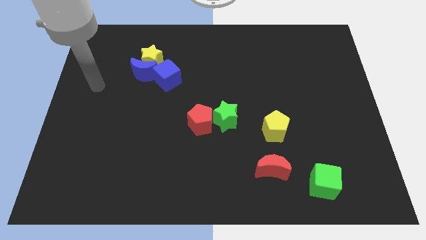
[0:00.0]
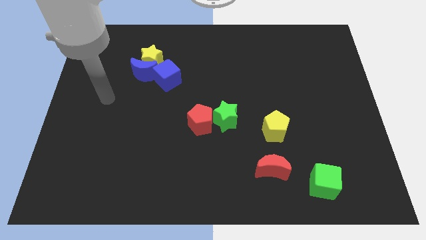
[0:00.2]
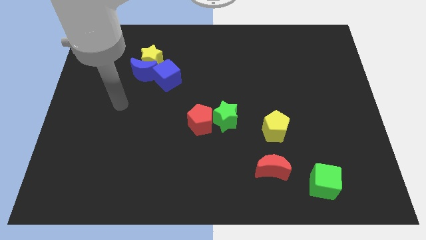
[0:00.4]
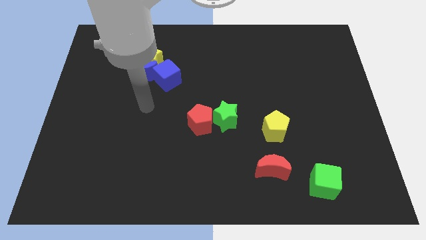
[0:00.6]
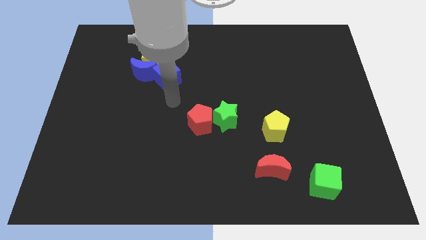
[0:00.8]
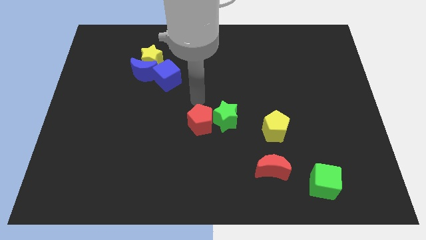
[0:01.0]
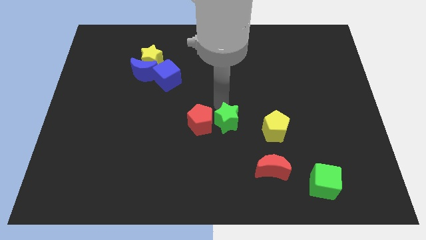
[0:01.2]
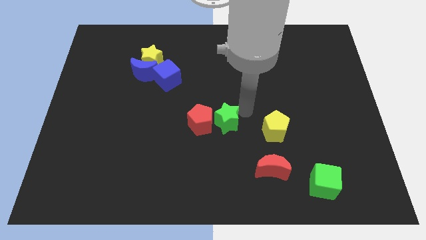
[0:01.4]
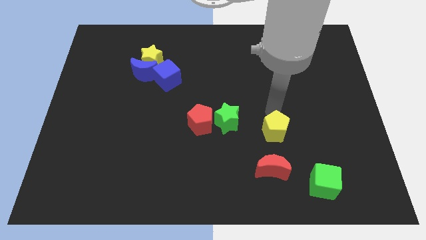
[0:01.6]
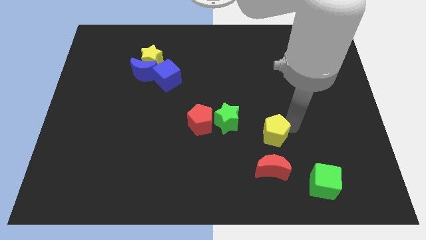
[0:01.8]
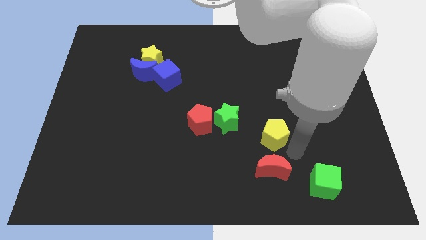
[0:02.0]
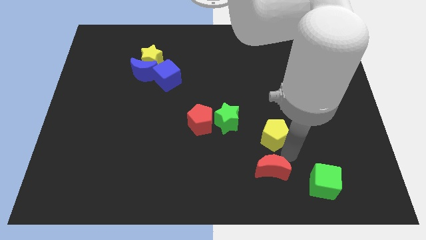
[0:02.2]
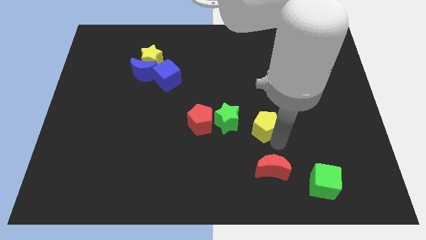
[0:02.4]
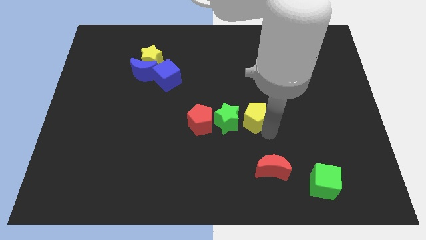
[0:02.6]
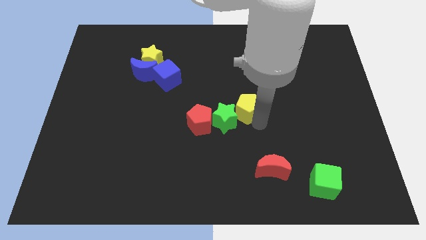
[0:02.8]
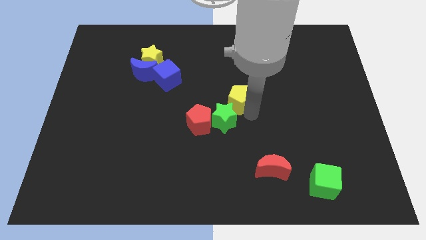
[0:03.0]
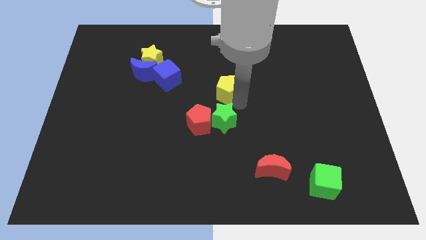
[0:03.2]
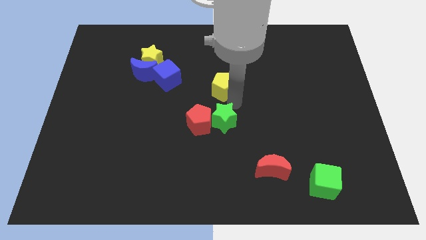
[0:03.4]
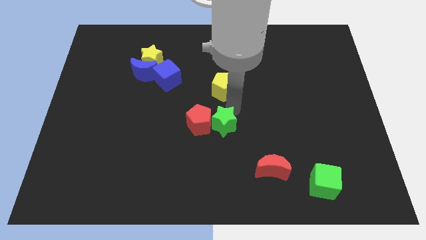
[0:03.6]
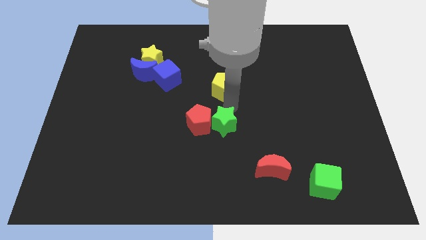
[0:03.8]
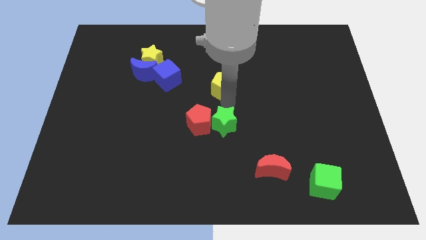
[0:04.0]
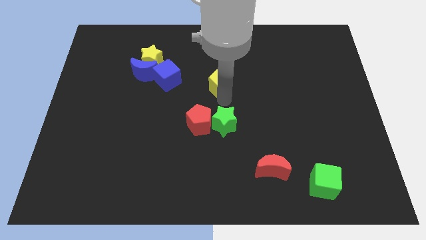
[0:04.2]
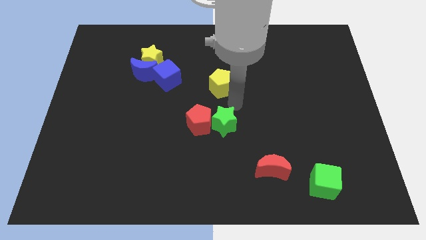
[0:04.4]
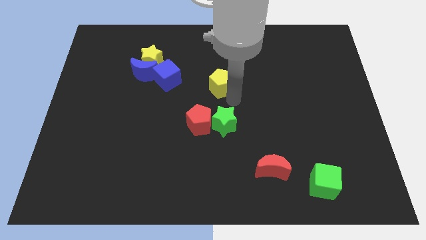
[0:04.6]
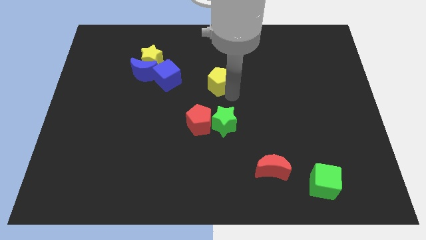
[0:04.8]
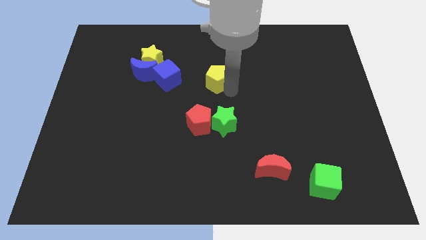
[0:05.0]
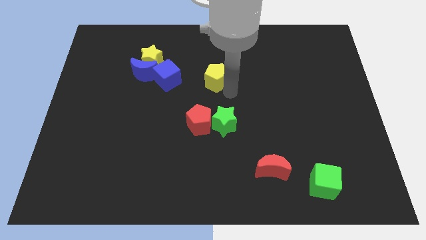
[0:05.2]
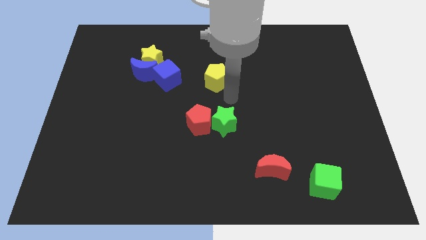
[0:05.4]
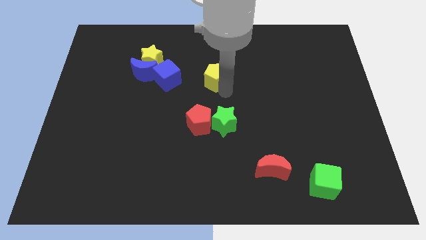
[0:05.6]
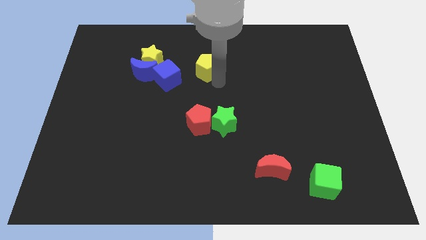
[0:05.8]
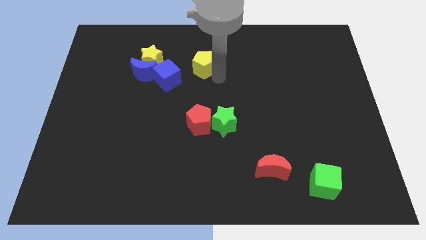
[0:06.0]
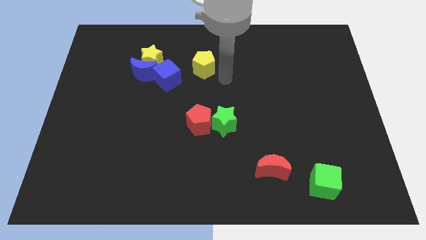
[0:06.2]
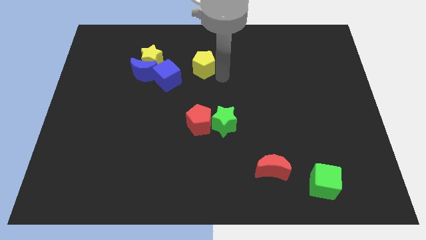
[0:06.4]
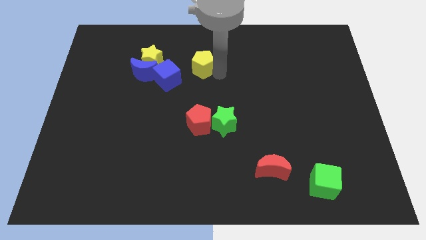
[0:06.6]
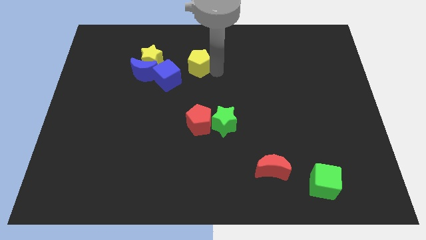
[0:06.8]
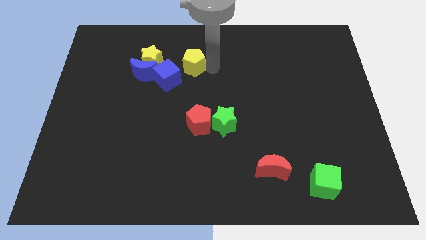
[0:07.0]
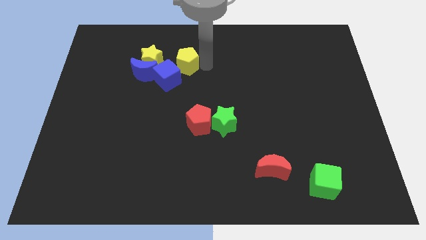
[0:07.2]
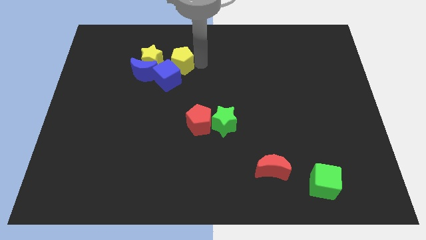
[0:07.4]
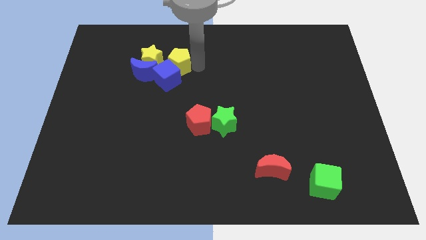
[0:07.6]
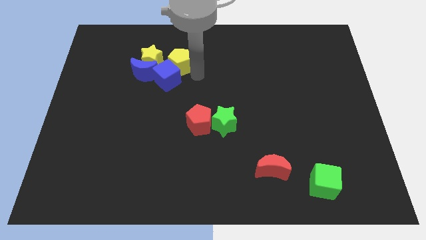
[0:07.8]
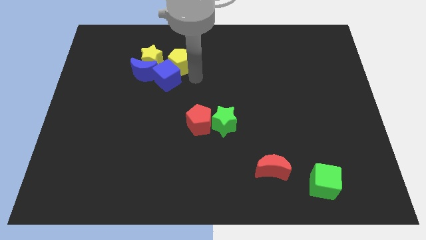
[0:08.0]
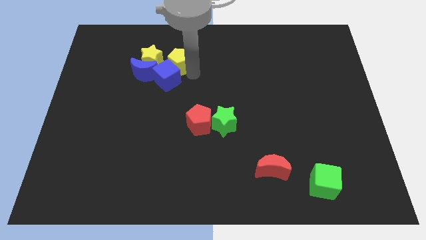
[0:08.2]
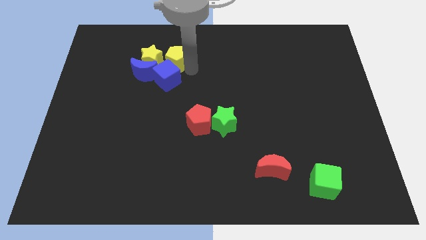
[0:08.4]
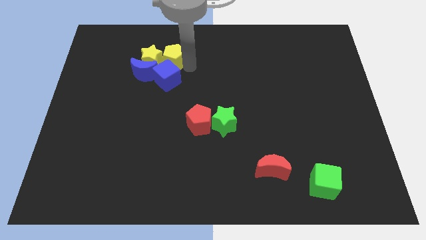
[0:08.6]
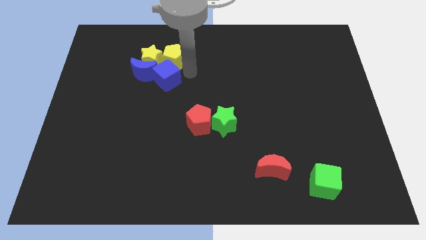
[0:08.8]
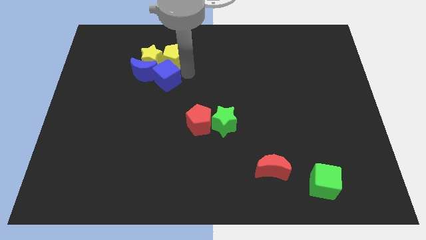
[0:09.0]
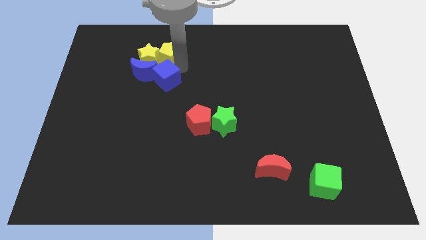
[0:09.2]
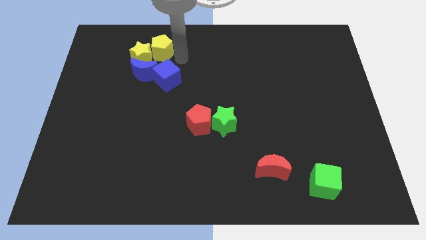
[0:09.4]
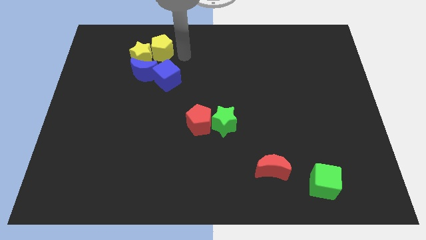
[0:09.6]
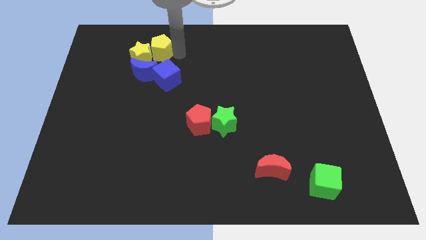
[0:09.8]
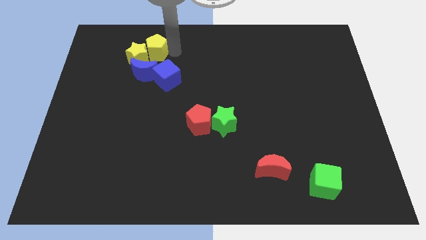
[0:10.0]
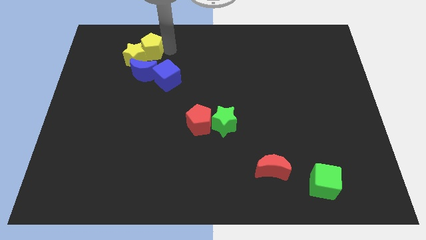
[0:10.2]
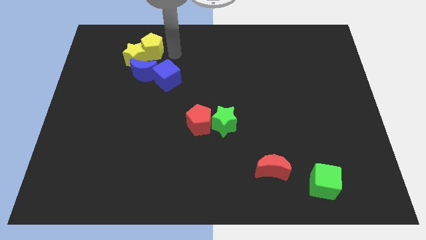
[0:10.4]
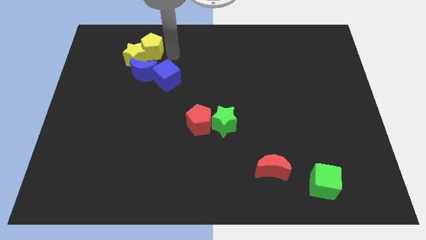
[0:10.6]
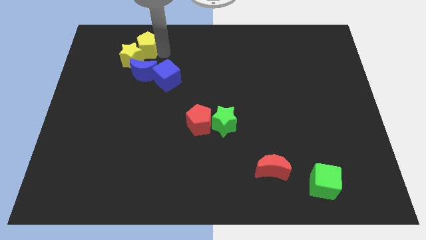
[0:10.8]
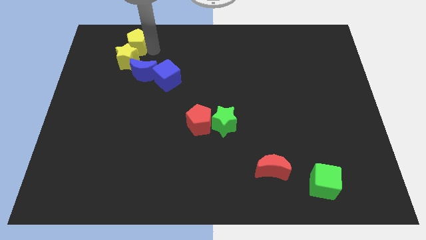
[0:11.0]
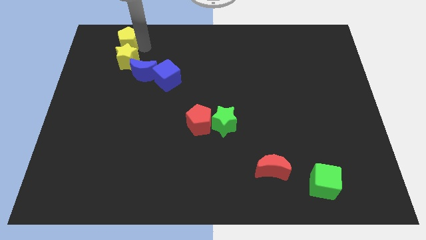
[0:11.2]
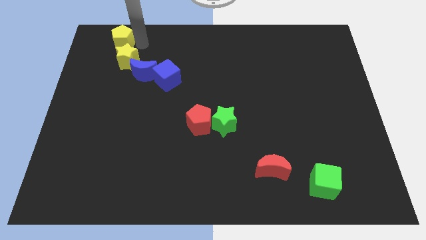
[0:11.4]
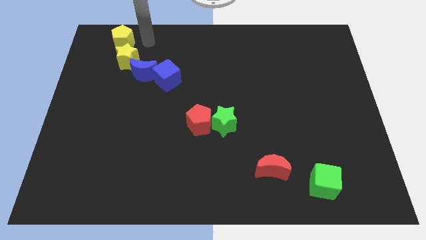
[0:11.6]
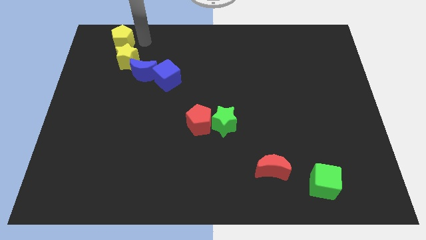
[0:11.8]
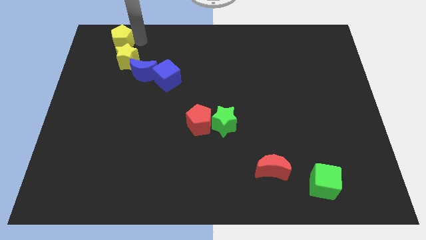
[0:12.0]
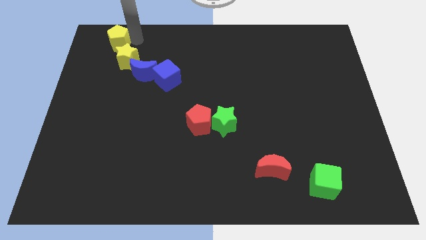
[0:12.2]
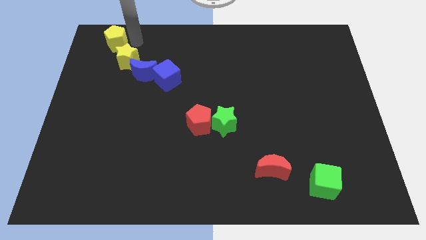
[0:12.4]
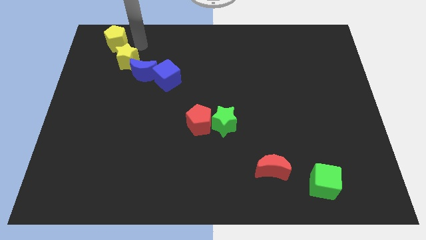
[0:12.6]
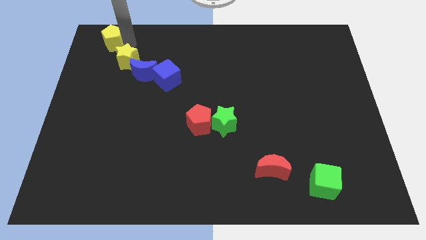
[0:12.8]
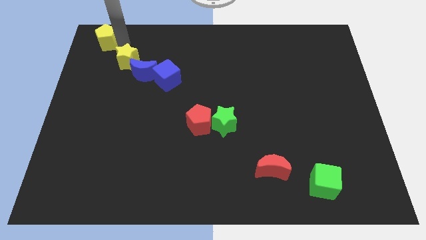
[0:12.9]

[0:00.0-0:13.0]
push the yellow pentagon to the top left

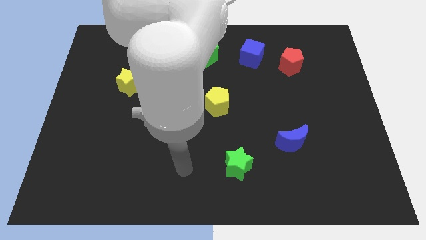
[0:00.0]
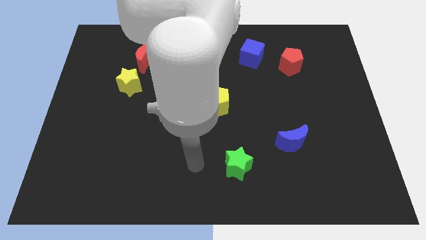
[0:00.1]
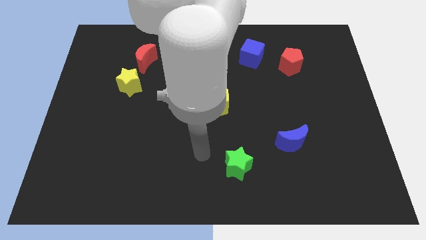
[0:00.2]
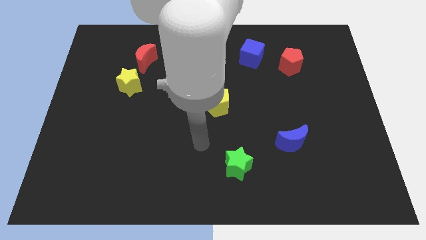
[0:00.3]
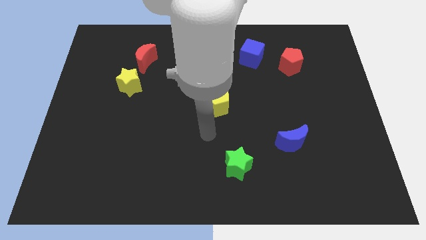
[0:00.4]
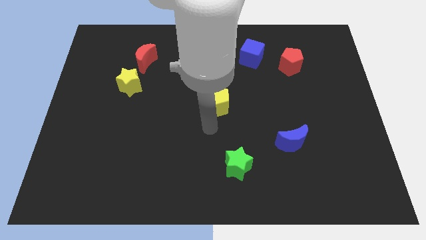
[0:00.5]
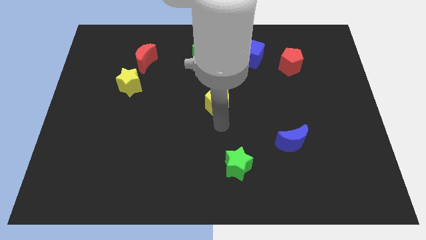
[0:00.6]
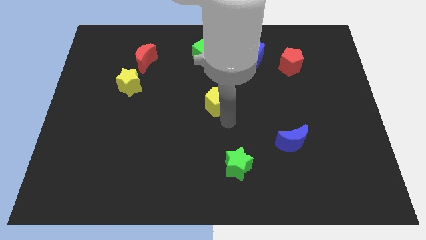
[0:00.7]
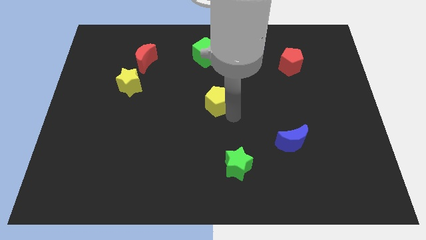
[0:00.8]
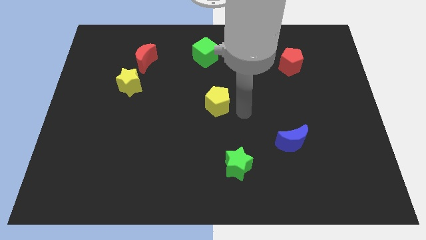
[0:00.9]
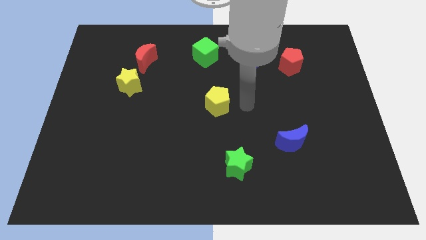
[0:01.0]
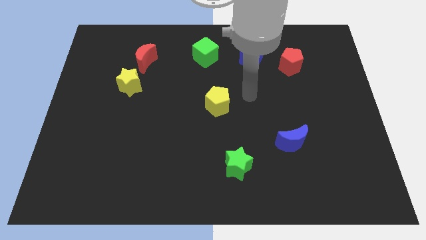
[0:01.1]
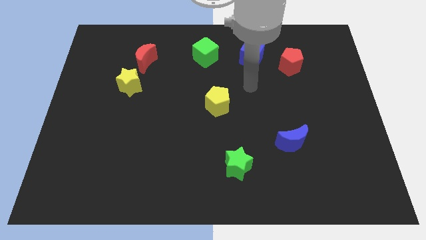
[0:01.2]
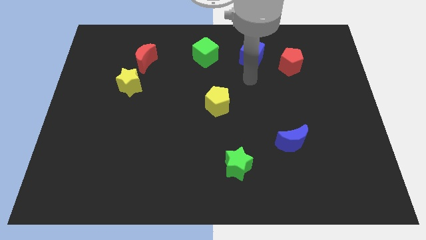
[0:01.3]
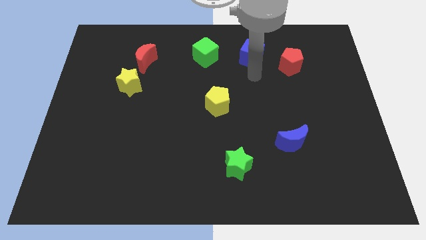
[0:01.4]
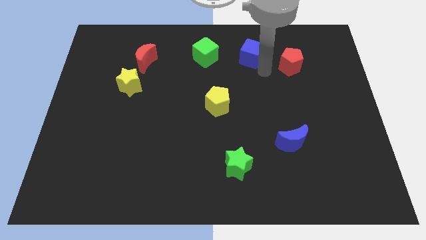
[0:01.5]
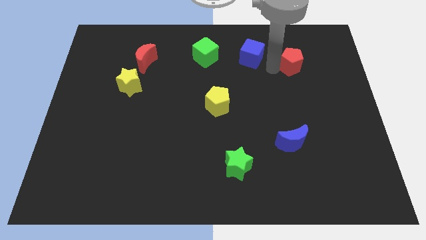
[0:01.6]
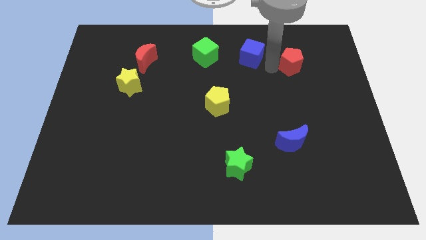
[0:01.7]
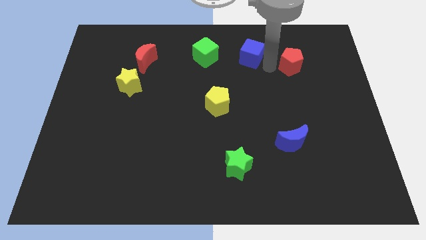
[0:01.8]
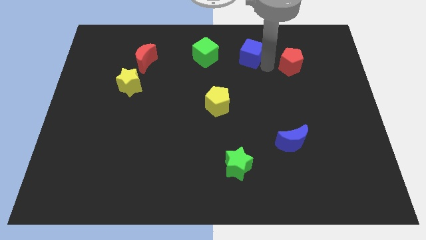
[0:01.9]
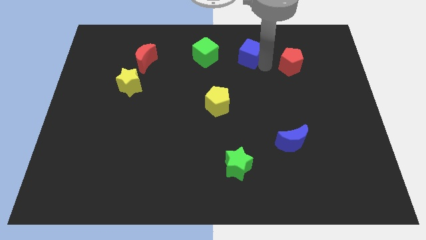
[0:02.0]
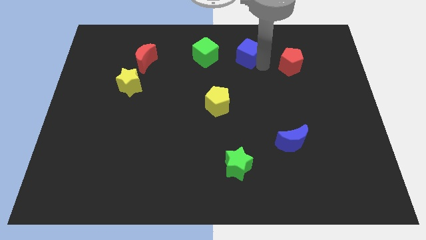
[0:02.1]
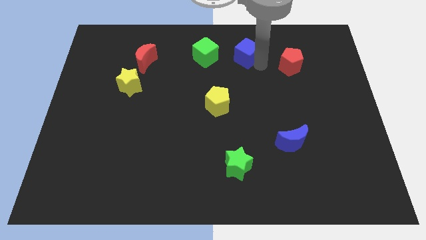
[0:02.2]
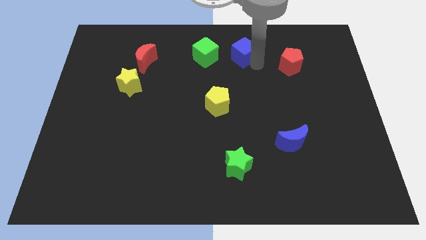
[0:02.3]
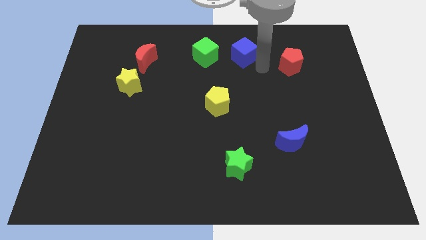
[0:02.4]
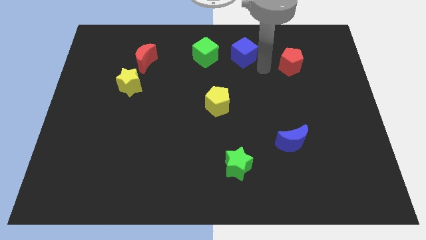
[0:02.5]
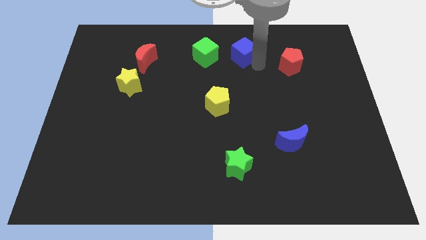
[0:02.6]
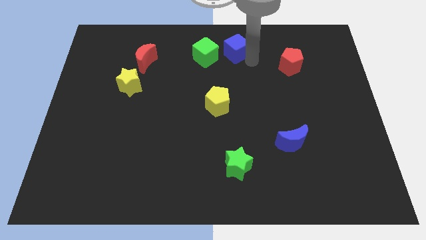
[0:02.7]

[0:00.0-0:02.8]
push the blue cube to the top
